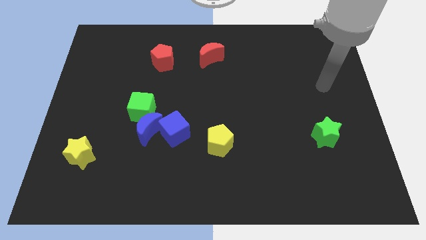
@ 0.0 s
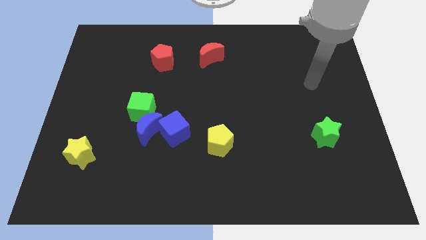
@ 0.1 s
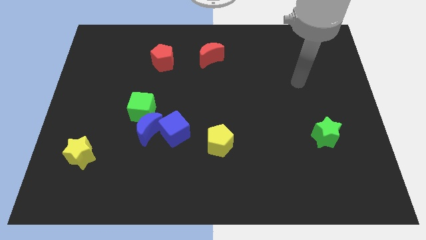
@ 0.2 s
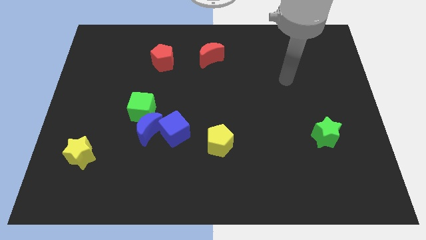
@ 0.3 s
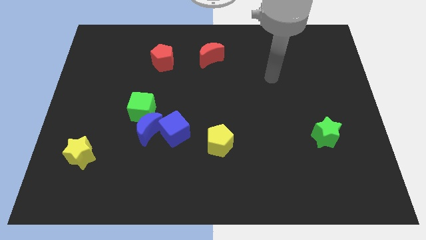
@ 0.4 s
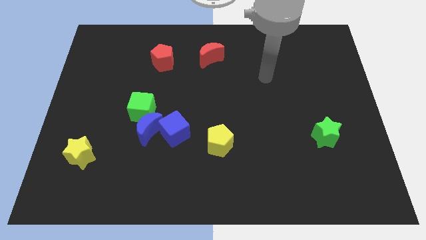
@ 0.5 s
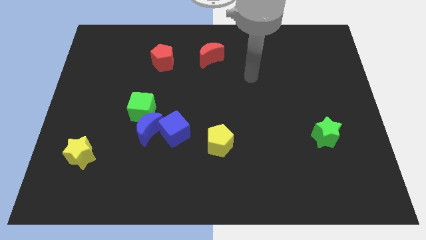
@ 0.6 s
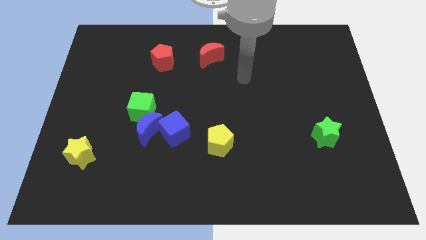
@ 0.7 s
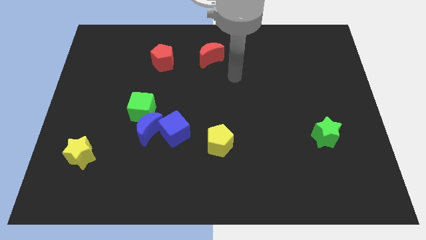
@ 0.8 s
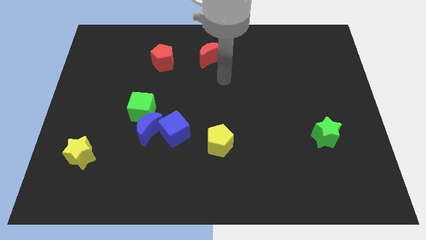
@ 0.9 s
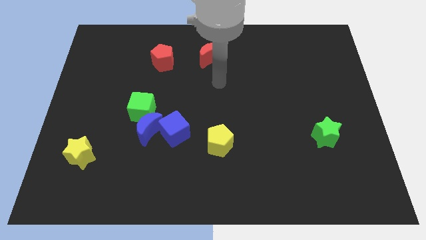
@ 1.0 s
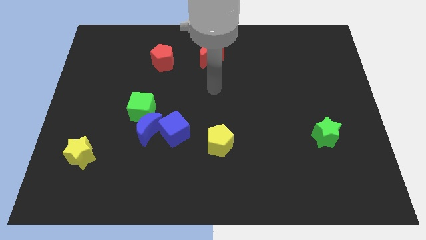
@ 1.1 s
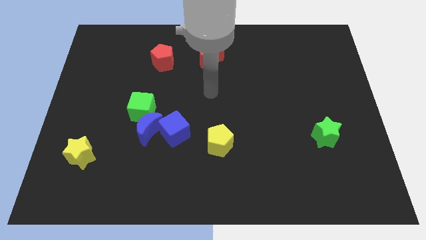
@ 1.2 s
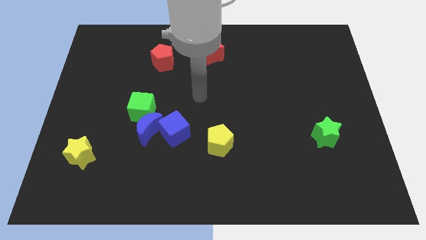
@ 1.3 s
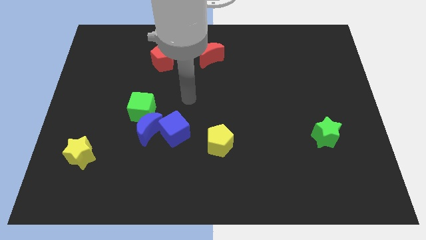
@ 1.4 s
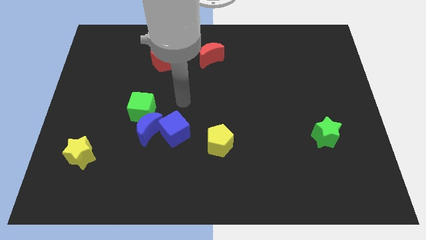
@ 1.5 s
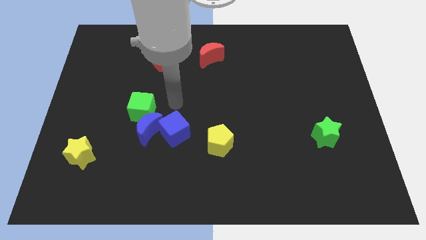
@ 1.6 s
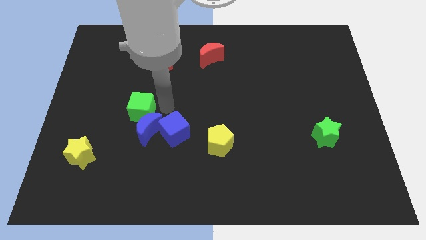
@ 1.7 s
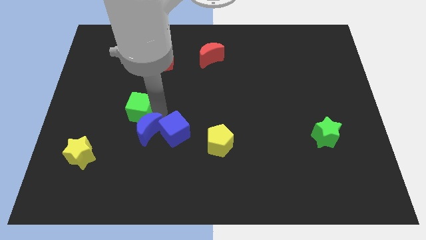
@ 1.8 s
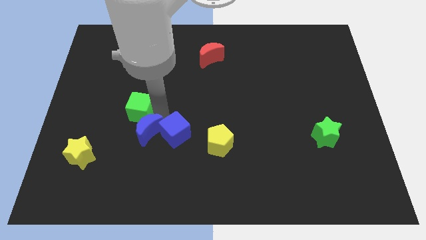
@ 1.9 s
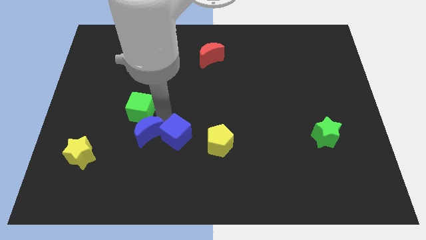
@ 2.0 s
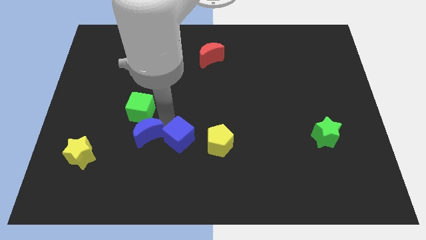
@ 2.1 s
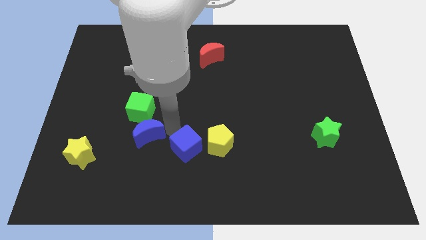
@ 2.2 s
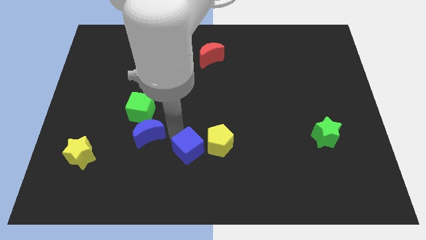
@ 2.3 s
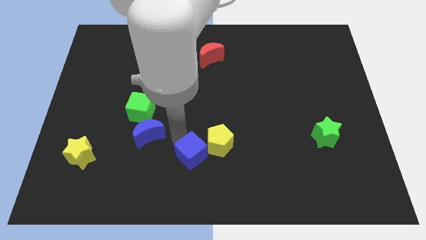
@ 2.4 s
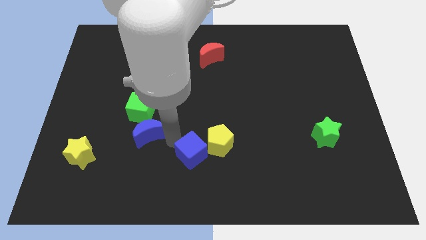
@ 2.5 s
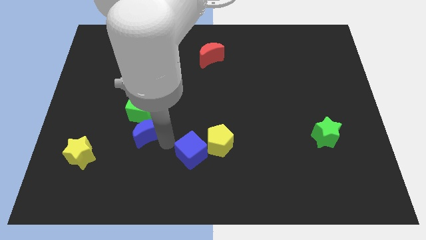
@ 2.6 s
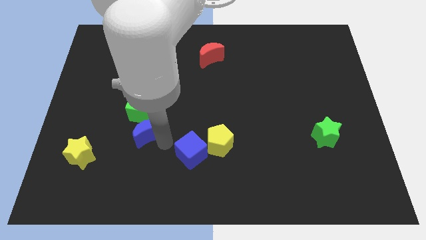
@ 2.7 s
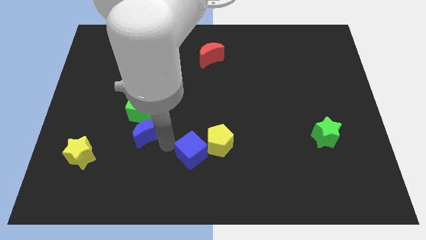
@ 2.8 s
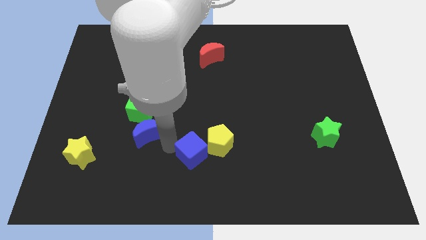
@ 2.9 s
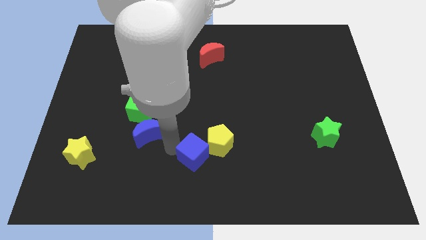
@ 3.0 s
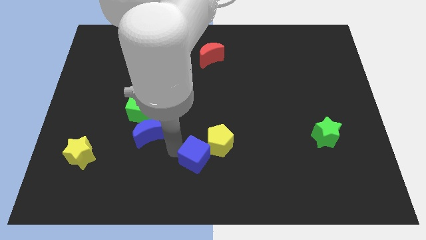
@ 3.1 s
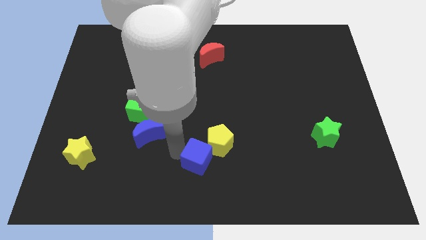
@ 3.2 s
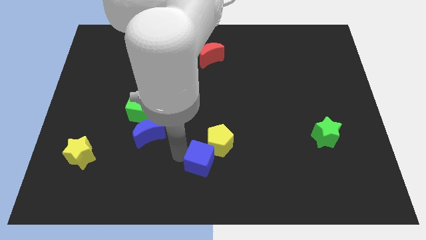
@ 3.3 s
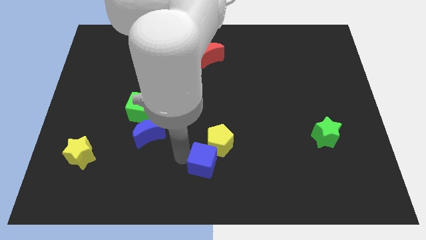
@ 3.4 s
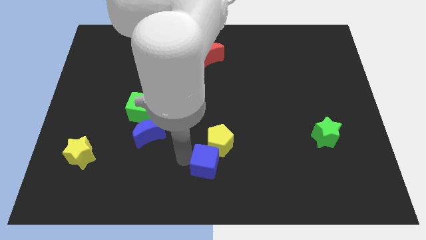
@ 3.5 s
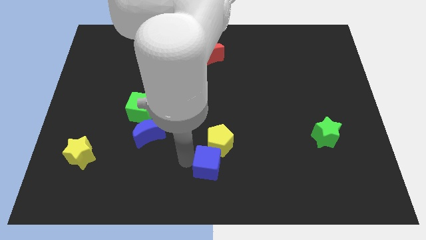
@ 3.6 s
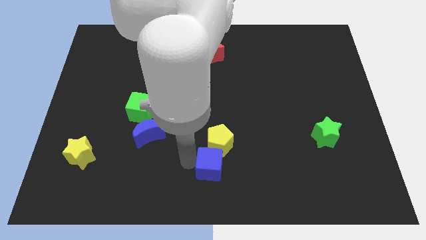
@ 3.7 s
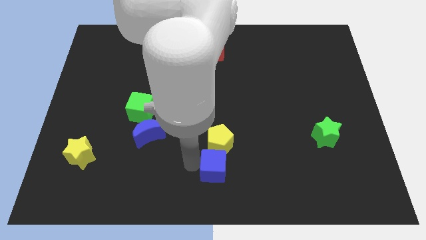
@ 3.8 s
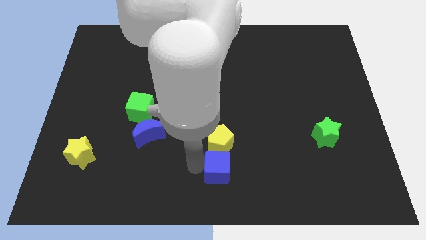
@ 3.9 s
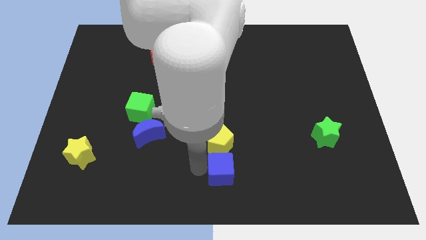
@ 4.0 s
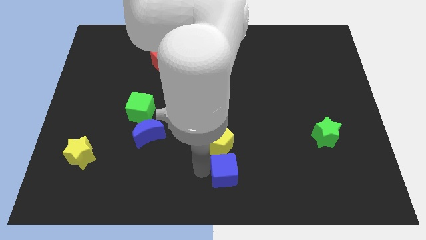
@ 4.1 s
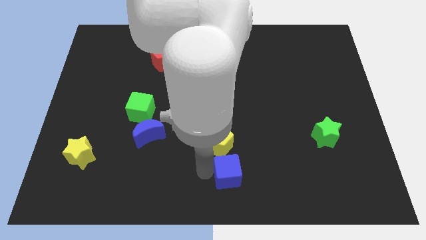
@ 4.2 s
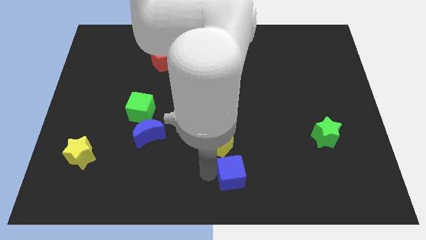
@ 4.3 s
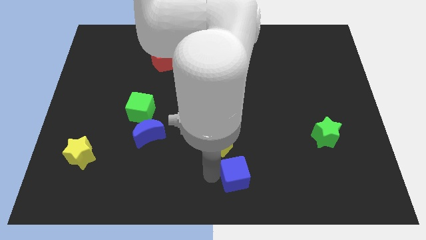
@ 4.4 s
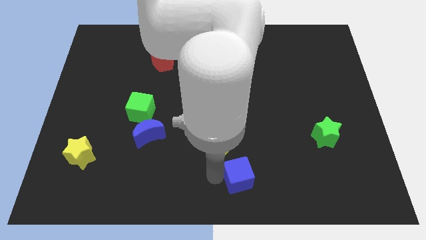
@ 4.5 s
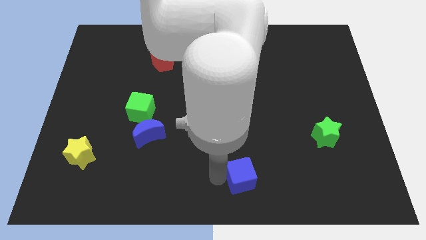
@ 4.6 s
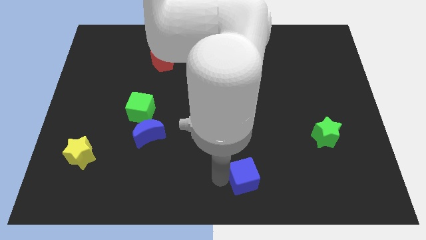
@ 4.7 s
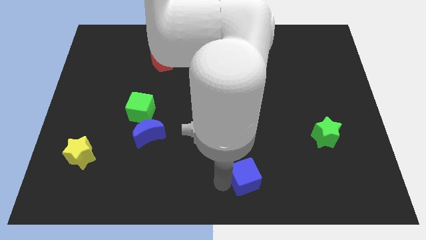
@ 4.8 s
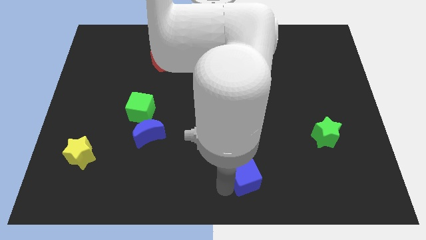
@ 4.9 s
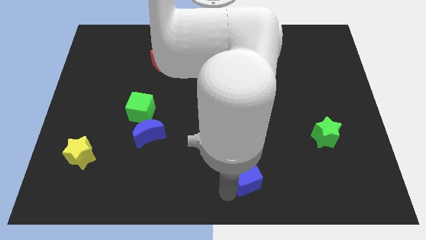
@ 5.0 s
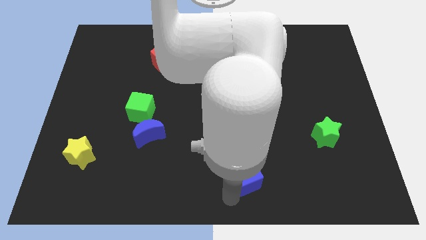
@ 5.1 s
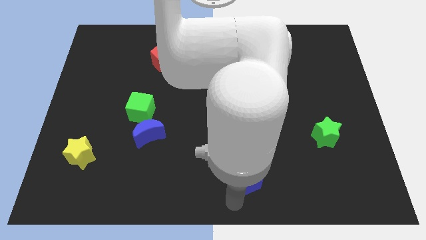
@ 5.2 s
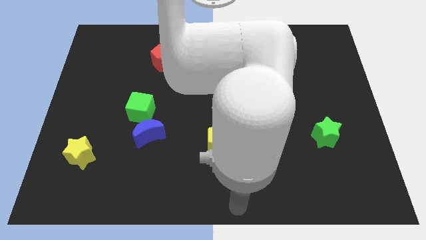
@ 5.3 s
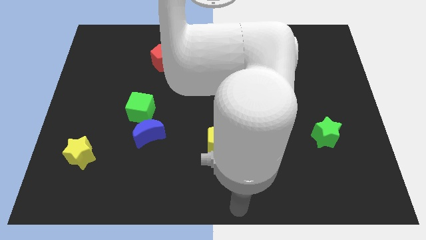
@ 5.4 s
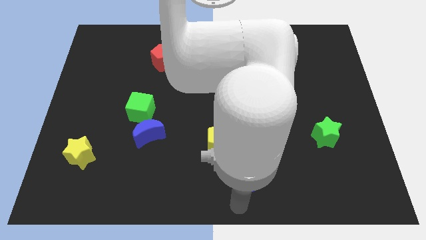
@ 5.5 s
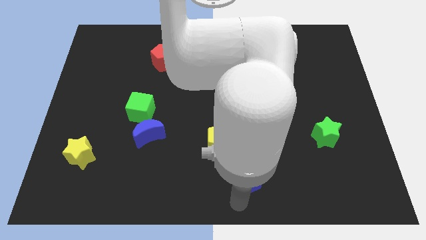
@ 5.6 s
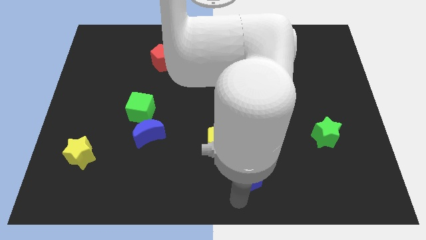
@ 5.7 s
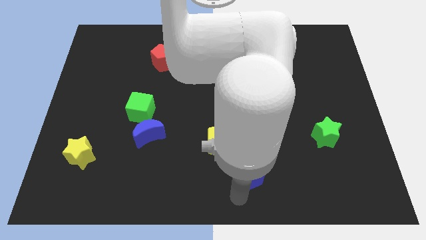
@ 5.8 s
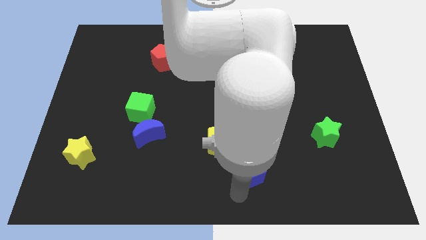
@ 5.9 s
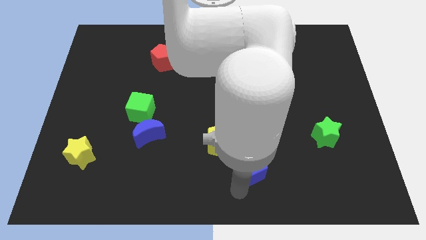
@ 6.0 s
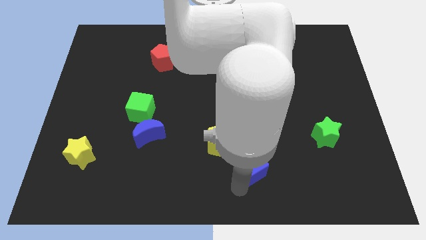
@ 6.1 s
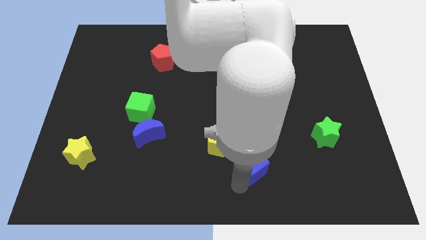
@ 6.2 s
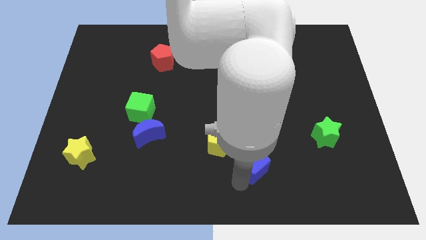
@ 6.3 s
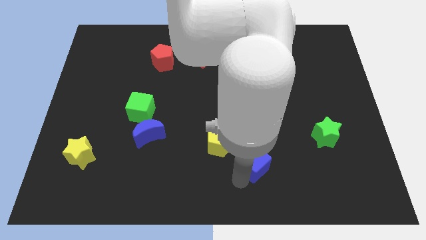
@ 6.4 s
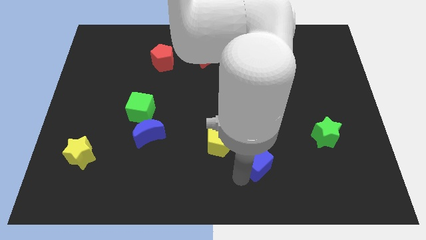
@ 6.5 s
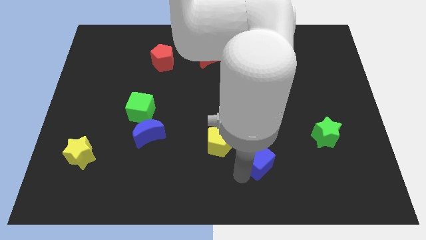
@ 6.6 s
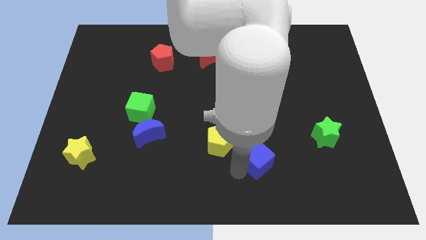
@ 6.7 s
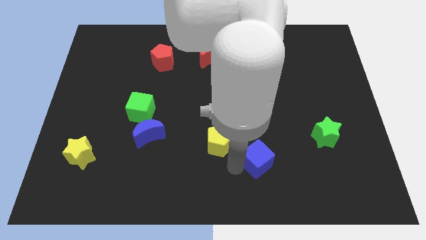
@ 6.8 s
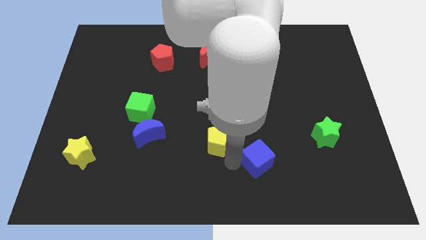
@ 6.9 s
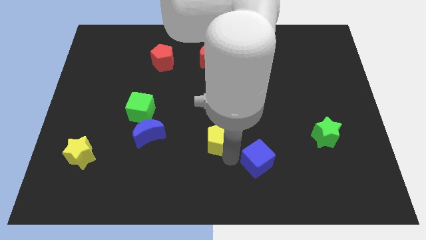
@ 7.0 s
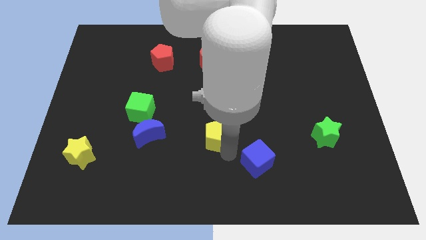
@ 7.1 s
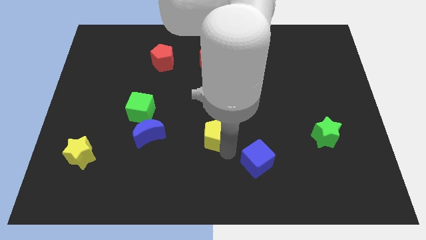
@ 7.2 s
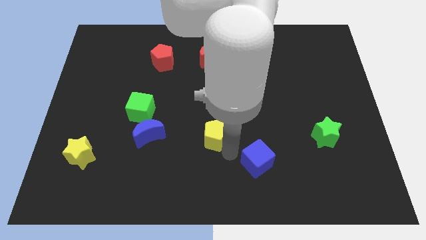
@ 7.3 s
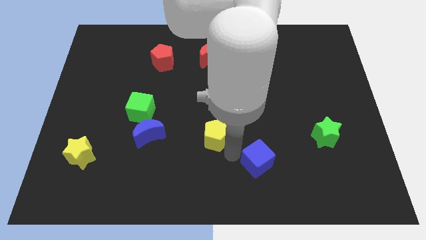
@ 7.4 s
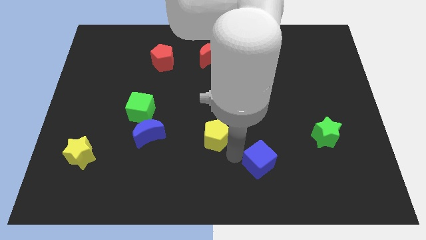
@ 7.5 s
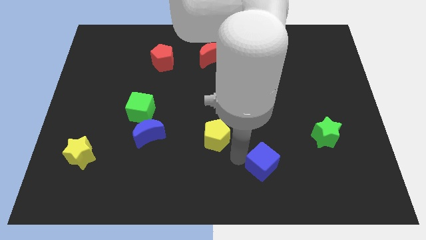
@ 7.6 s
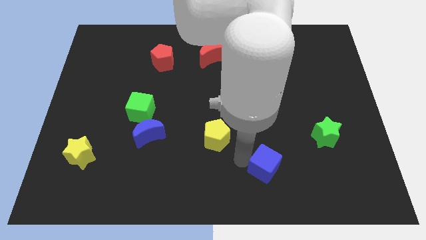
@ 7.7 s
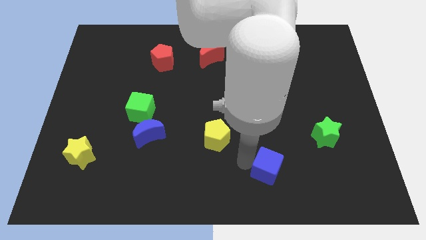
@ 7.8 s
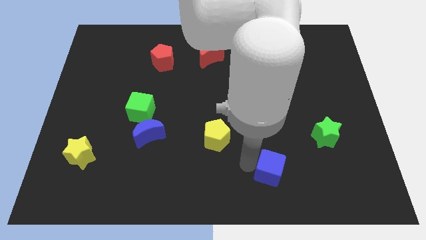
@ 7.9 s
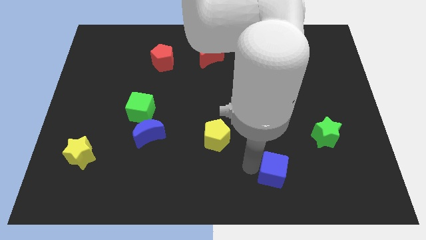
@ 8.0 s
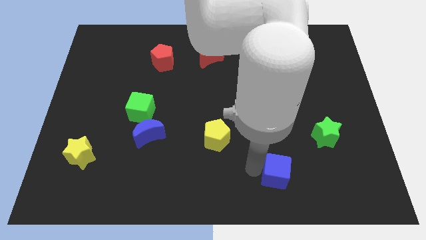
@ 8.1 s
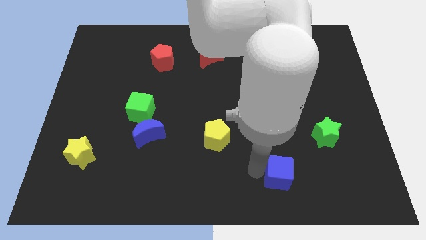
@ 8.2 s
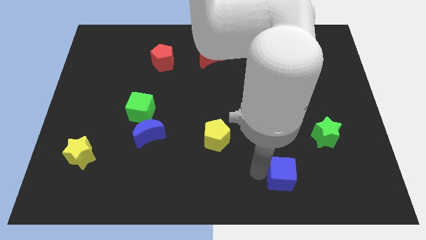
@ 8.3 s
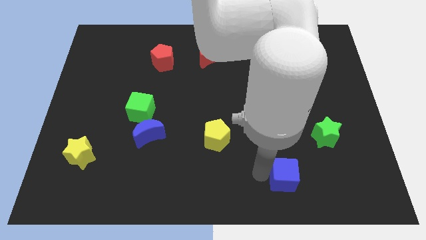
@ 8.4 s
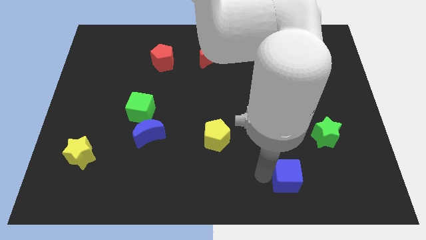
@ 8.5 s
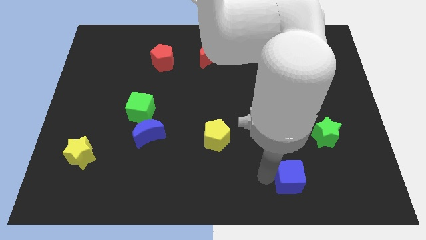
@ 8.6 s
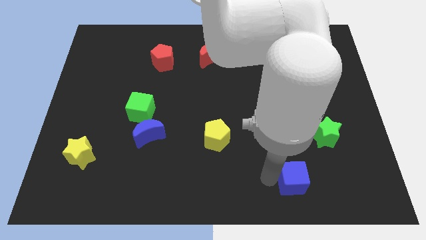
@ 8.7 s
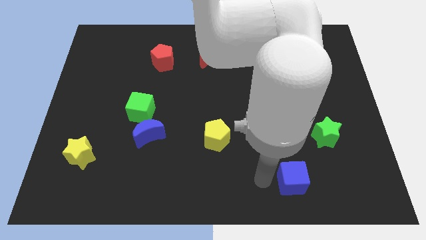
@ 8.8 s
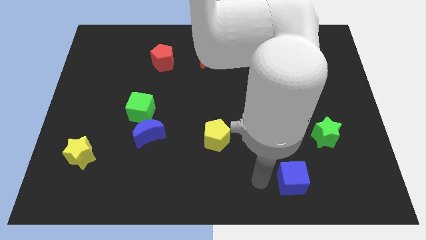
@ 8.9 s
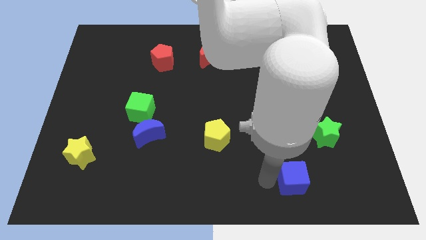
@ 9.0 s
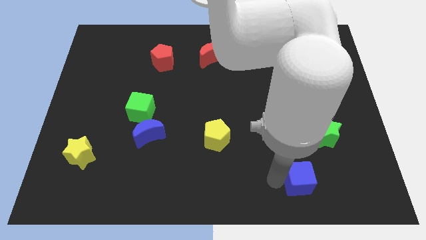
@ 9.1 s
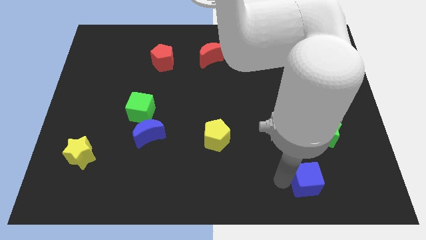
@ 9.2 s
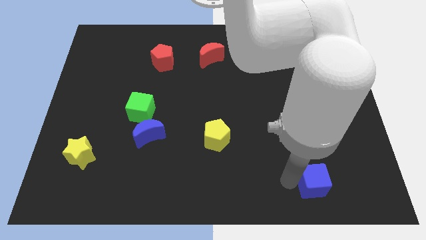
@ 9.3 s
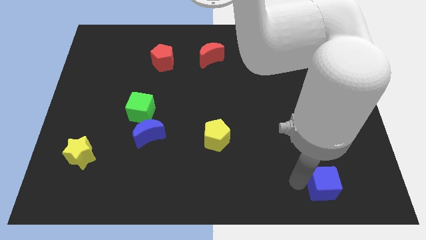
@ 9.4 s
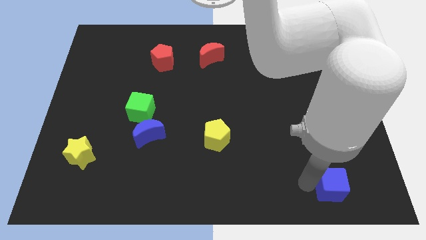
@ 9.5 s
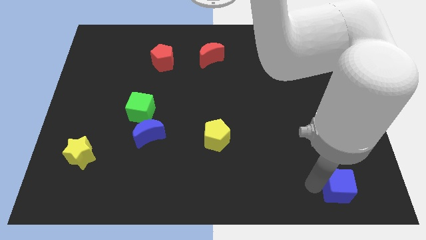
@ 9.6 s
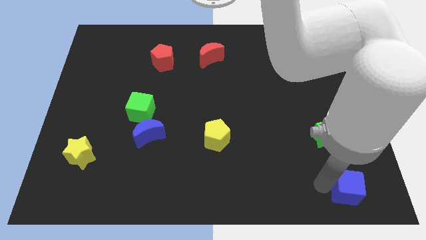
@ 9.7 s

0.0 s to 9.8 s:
slide the blue cube to the bottom right of the board
